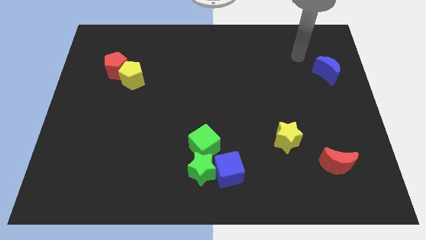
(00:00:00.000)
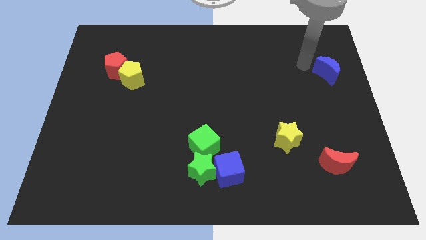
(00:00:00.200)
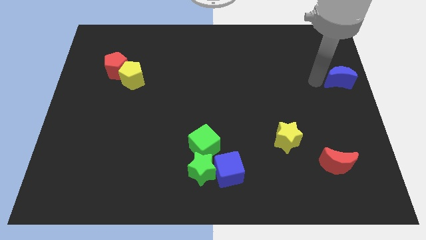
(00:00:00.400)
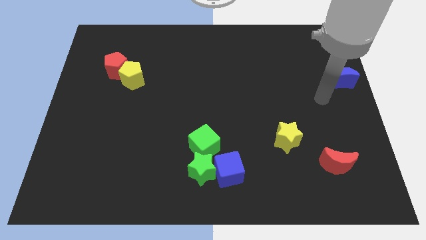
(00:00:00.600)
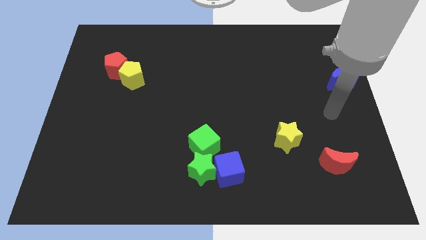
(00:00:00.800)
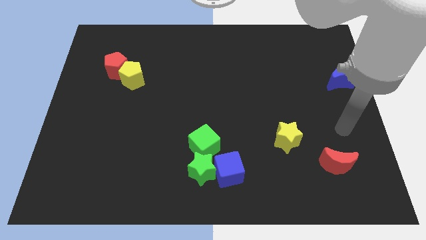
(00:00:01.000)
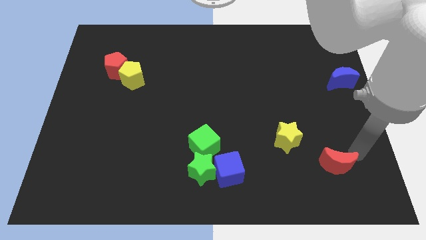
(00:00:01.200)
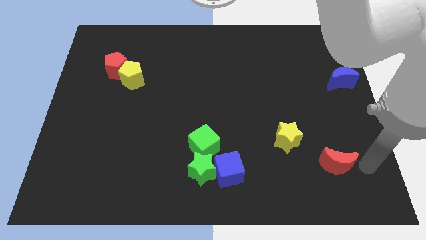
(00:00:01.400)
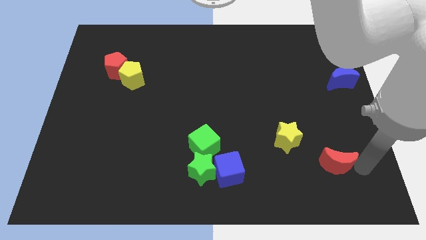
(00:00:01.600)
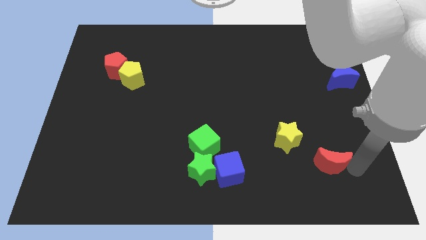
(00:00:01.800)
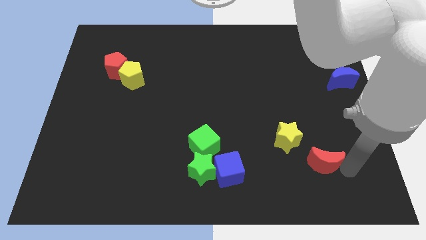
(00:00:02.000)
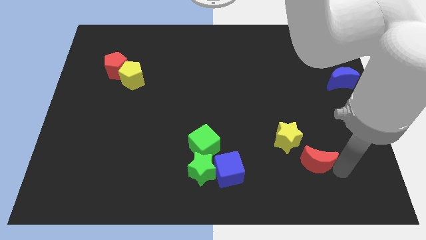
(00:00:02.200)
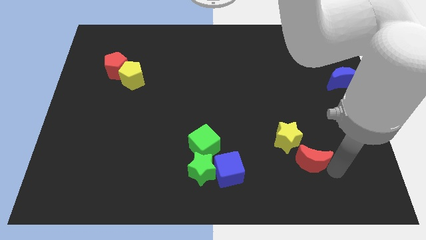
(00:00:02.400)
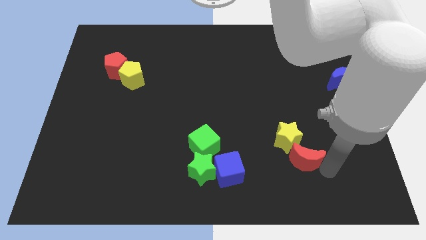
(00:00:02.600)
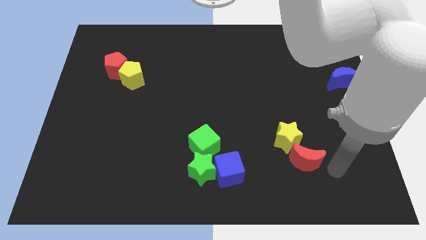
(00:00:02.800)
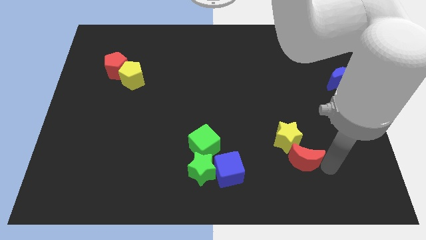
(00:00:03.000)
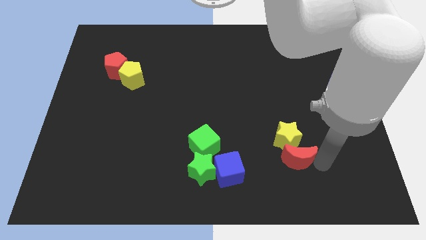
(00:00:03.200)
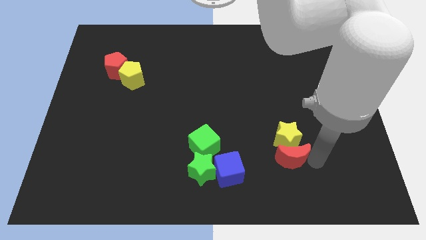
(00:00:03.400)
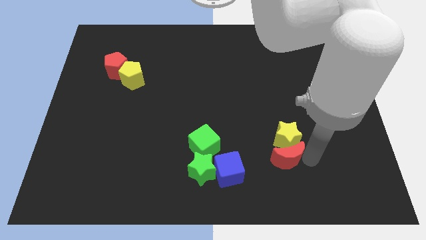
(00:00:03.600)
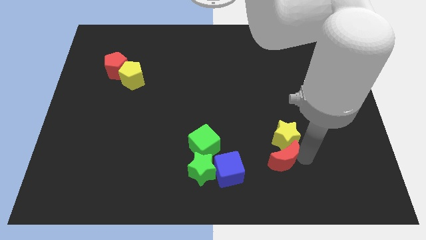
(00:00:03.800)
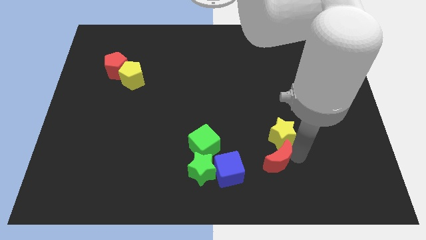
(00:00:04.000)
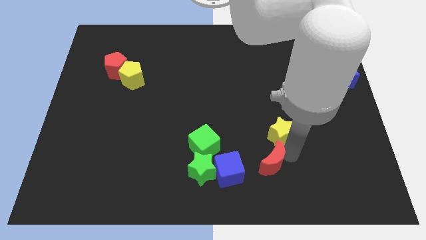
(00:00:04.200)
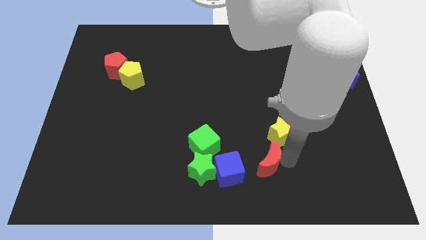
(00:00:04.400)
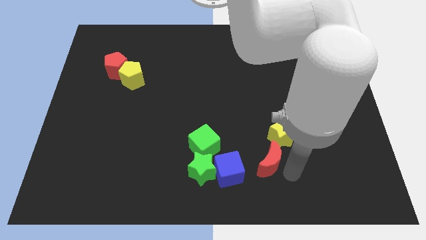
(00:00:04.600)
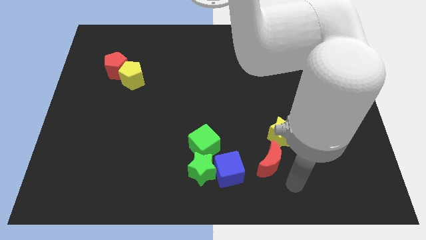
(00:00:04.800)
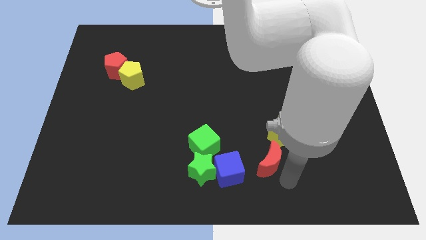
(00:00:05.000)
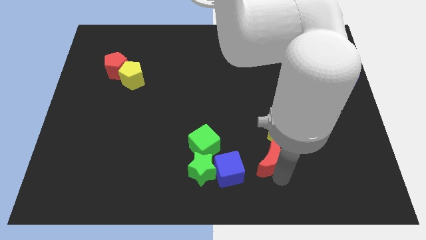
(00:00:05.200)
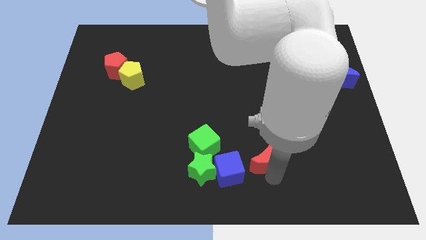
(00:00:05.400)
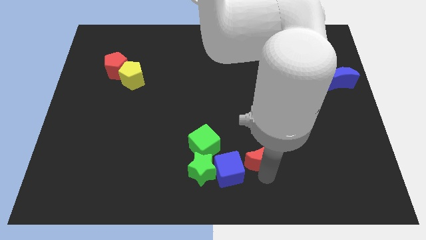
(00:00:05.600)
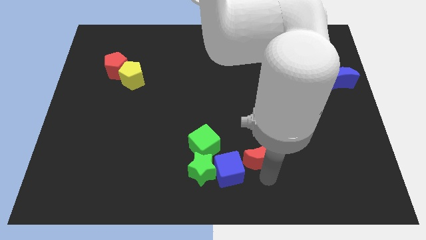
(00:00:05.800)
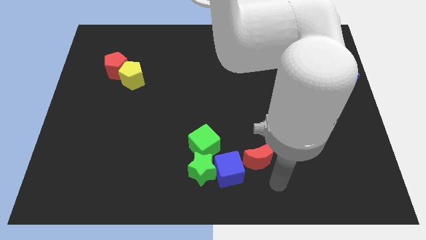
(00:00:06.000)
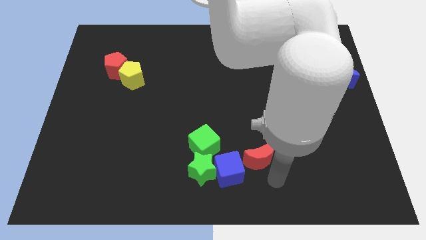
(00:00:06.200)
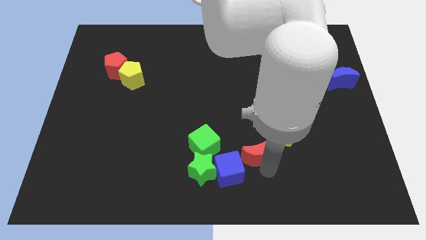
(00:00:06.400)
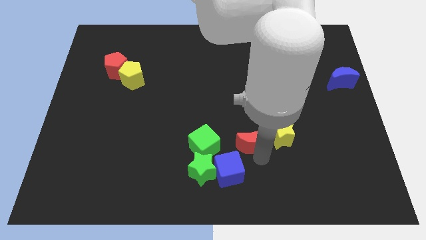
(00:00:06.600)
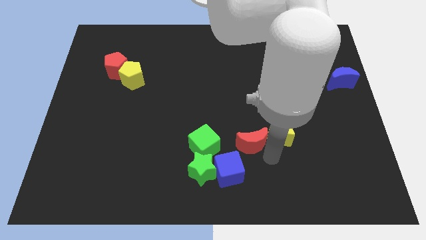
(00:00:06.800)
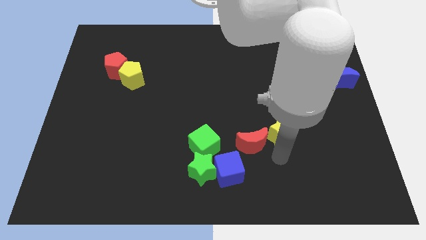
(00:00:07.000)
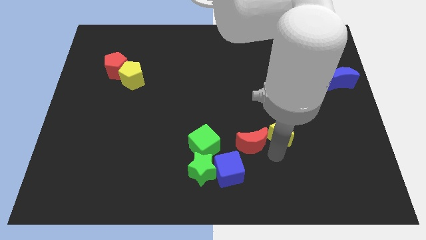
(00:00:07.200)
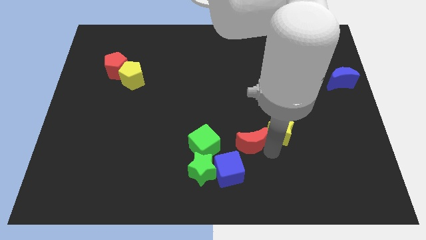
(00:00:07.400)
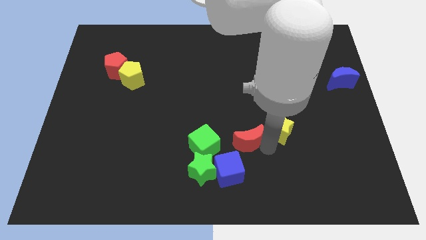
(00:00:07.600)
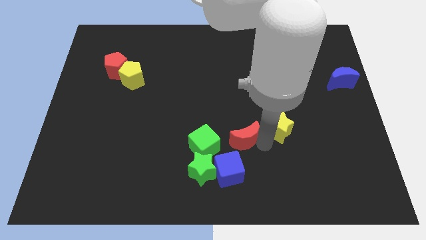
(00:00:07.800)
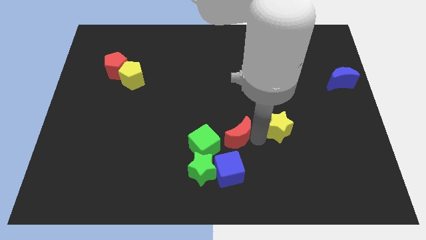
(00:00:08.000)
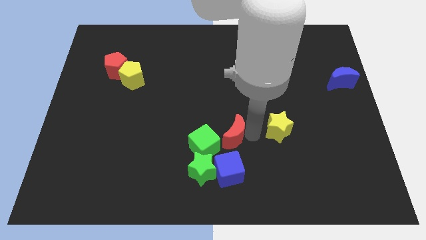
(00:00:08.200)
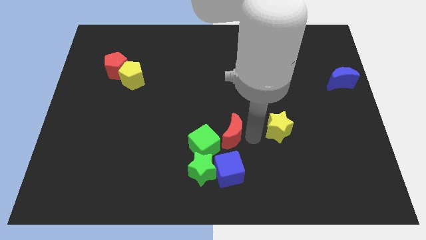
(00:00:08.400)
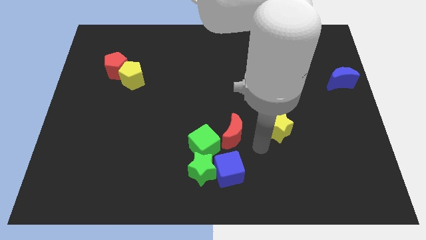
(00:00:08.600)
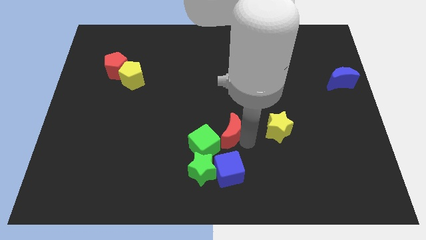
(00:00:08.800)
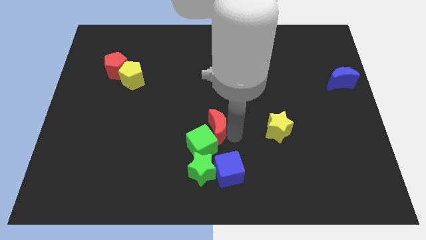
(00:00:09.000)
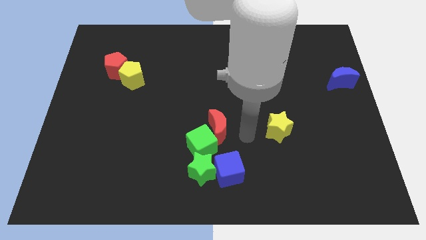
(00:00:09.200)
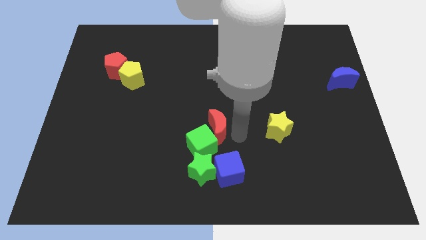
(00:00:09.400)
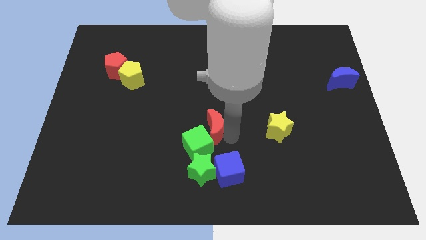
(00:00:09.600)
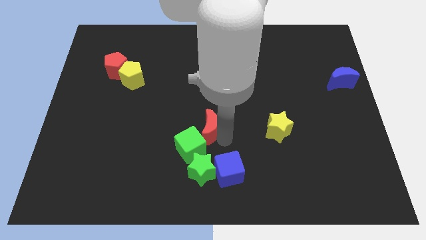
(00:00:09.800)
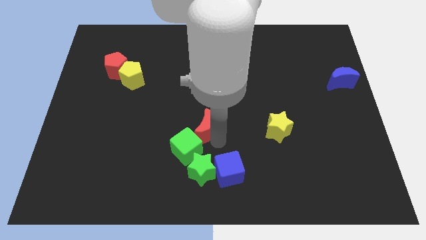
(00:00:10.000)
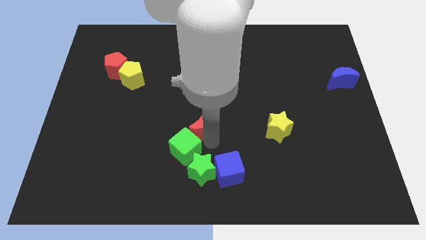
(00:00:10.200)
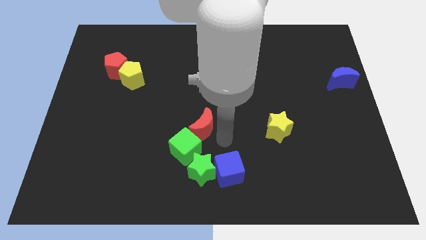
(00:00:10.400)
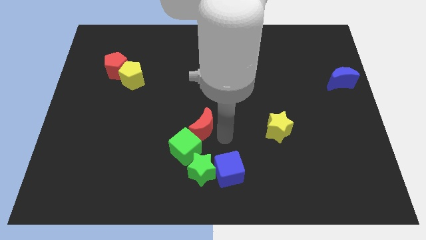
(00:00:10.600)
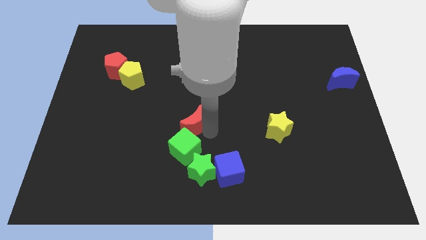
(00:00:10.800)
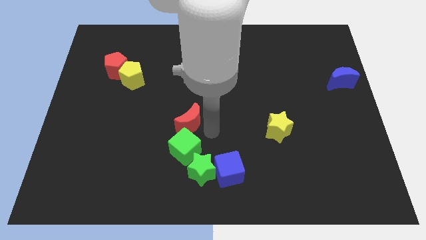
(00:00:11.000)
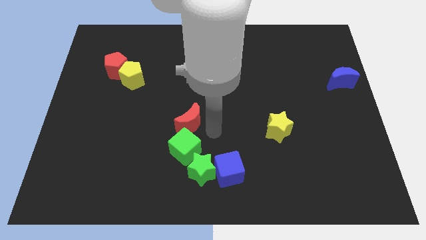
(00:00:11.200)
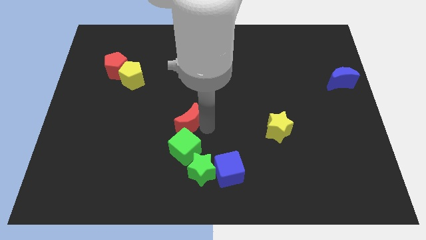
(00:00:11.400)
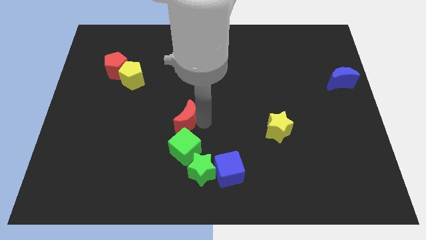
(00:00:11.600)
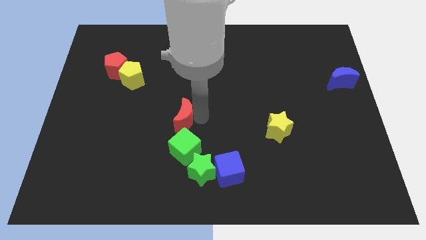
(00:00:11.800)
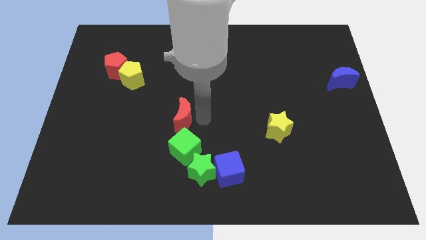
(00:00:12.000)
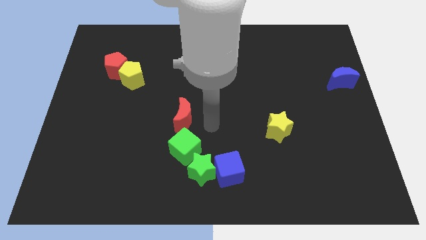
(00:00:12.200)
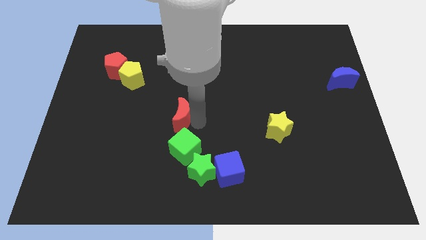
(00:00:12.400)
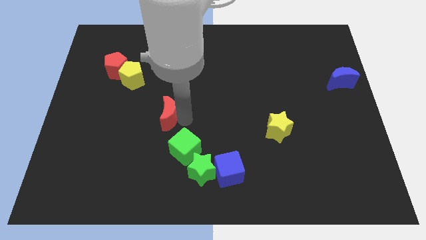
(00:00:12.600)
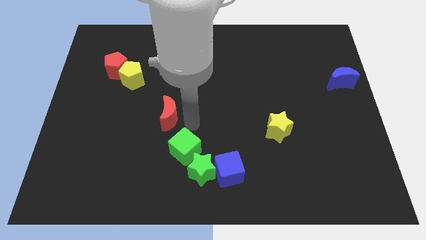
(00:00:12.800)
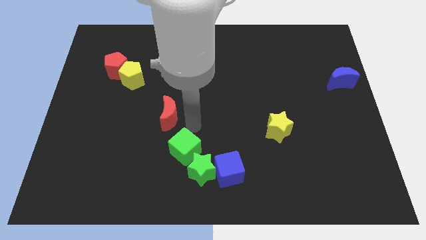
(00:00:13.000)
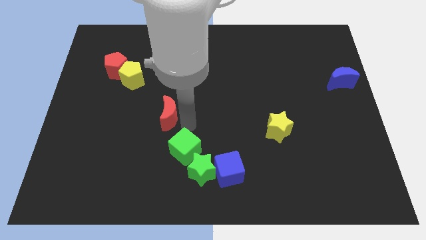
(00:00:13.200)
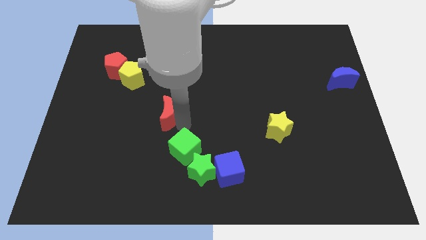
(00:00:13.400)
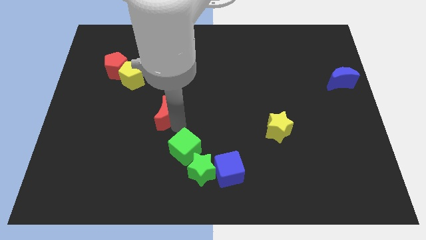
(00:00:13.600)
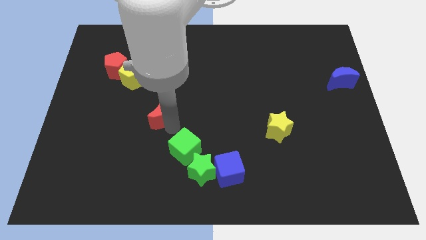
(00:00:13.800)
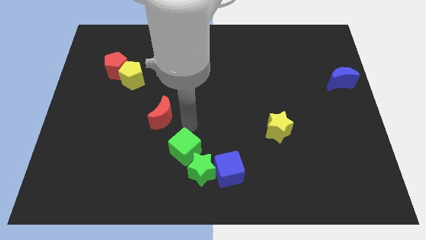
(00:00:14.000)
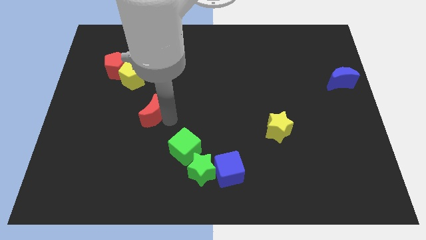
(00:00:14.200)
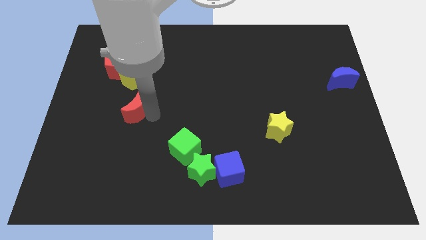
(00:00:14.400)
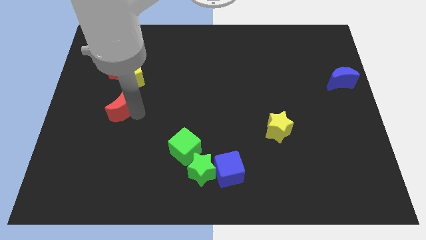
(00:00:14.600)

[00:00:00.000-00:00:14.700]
push the red moon to the bottom of the red pentagon
